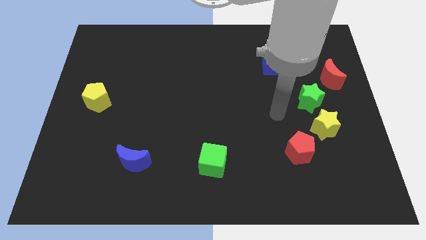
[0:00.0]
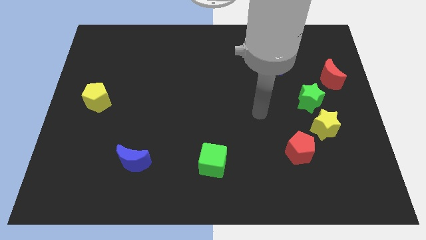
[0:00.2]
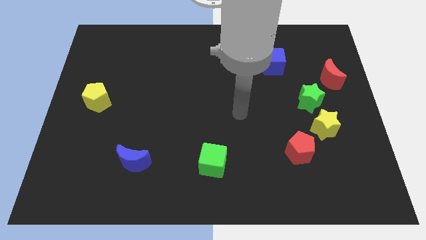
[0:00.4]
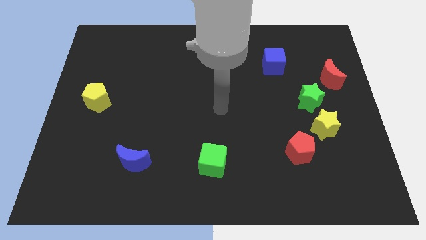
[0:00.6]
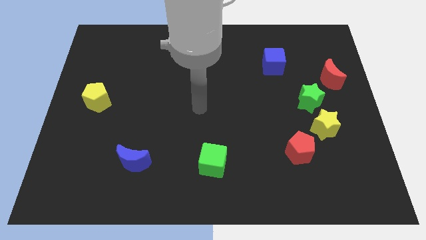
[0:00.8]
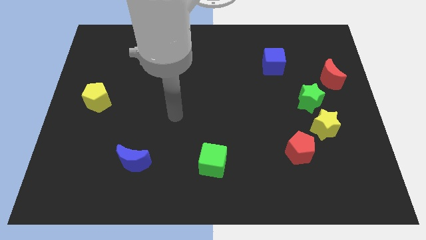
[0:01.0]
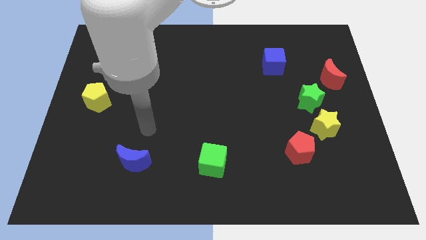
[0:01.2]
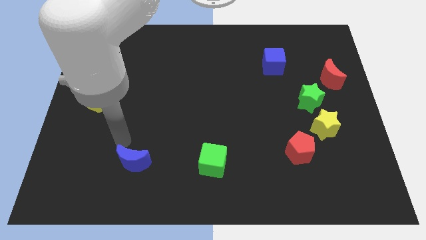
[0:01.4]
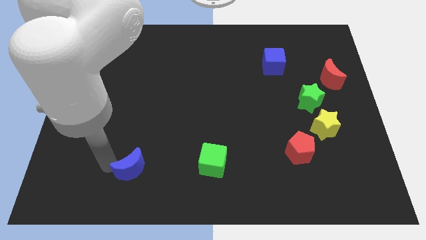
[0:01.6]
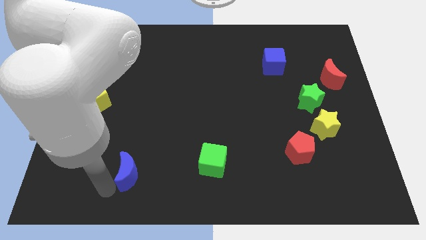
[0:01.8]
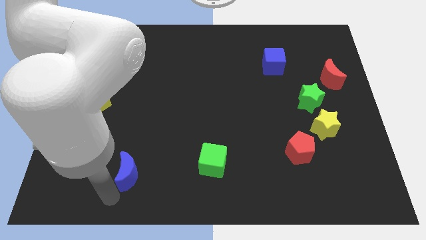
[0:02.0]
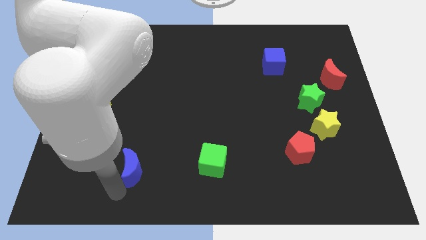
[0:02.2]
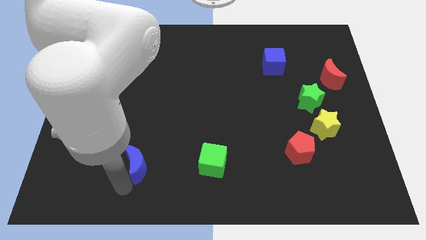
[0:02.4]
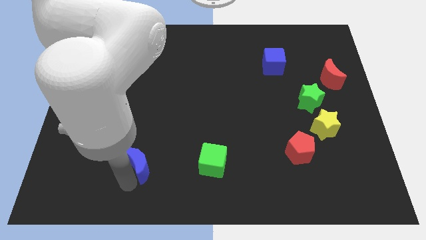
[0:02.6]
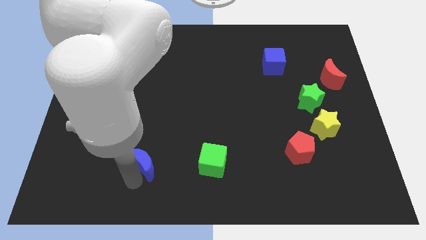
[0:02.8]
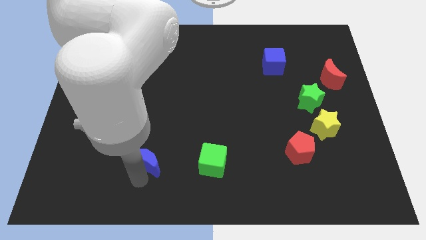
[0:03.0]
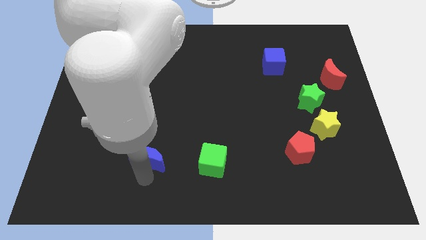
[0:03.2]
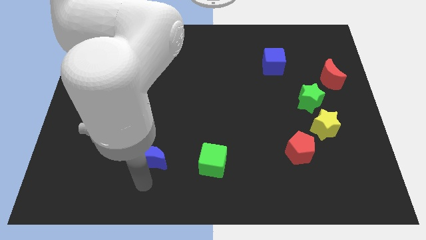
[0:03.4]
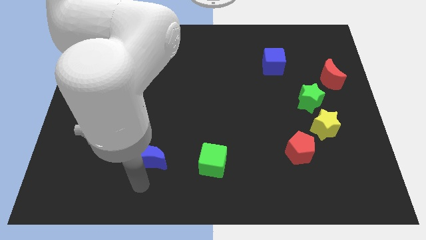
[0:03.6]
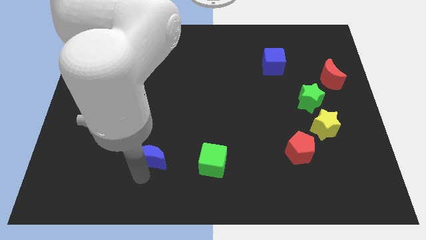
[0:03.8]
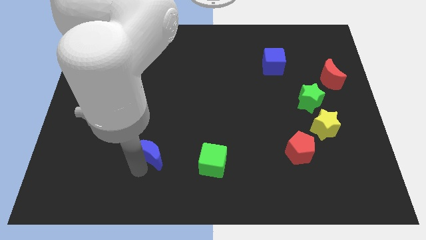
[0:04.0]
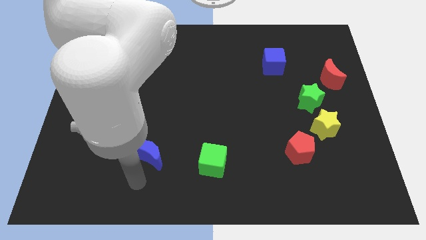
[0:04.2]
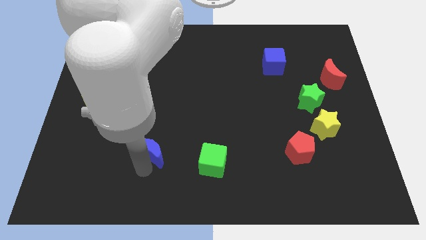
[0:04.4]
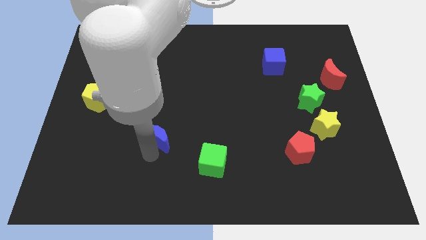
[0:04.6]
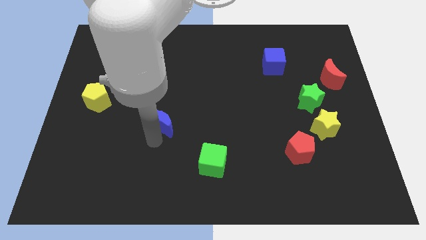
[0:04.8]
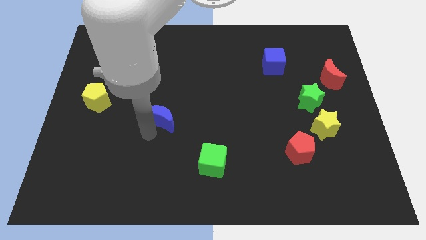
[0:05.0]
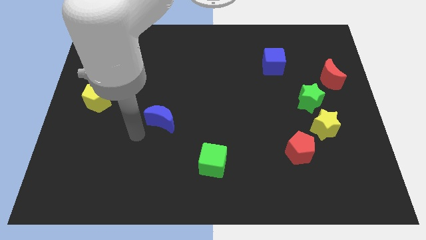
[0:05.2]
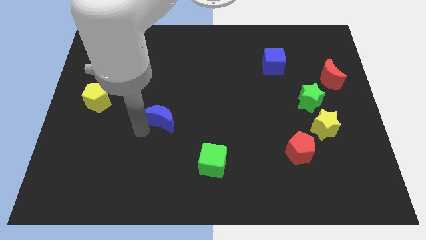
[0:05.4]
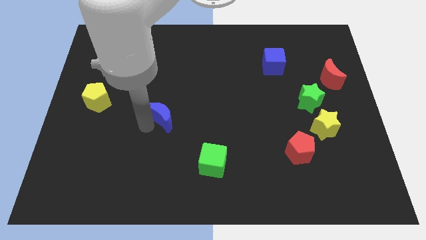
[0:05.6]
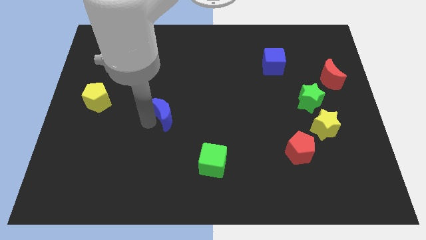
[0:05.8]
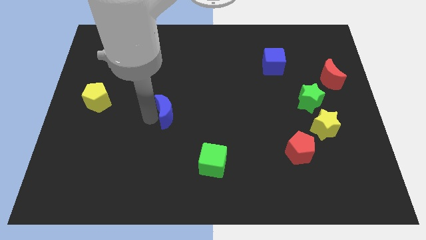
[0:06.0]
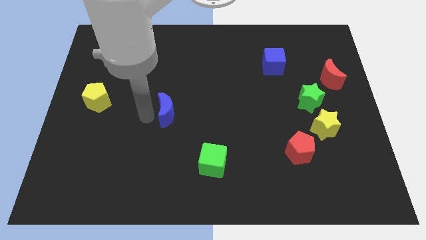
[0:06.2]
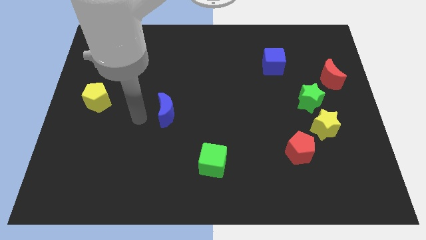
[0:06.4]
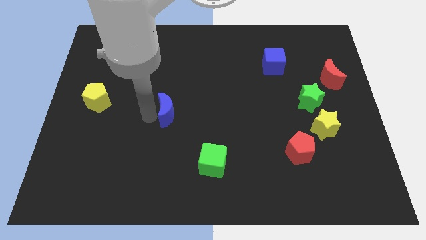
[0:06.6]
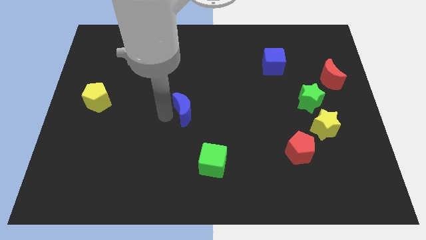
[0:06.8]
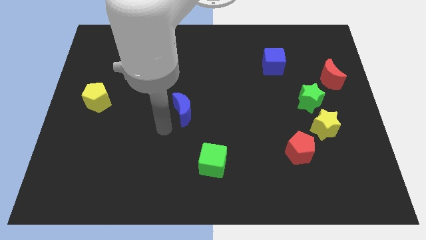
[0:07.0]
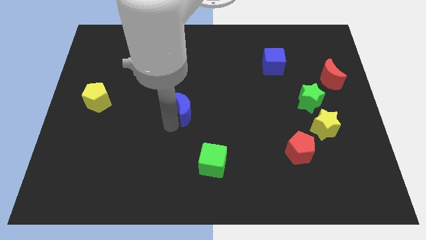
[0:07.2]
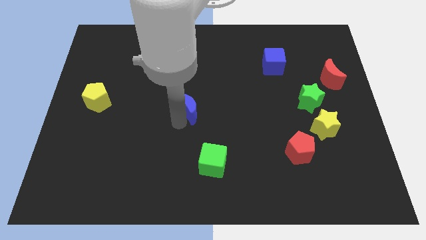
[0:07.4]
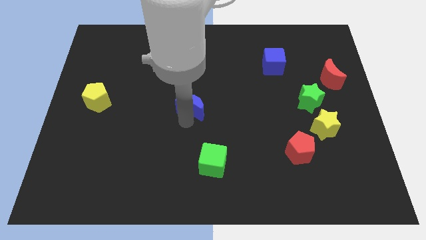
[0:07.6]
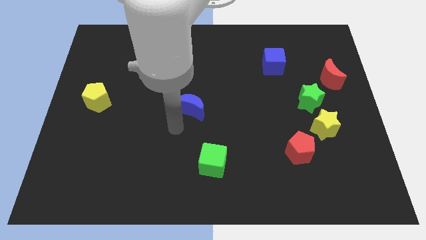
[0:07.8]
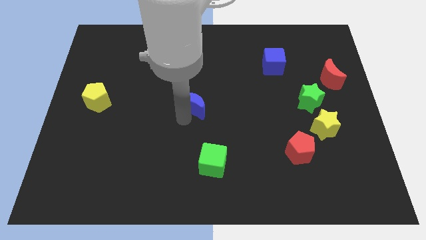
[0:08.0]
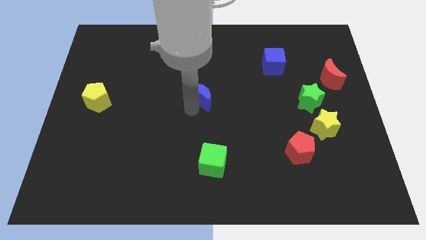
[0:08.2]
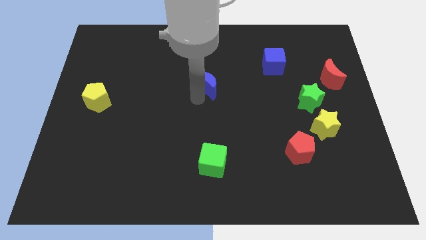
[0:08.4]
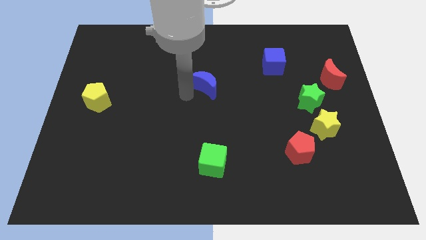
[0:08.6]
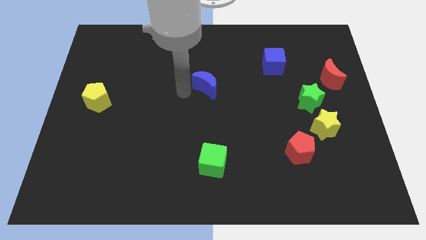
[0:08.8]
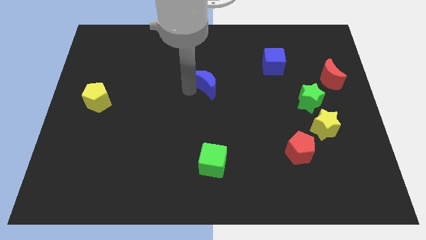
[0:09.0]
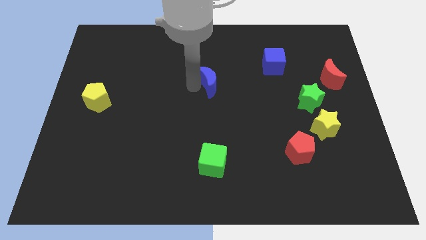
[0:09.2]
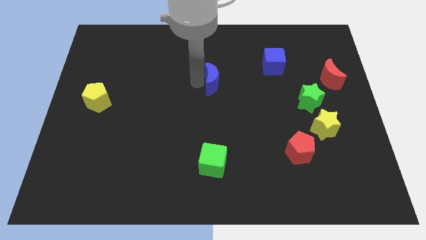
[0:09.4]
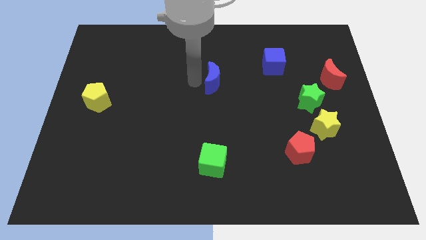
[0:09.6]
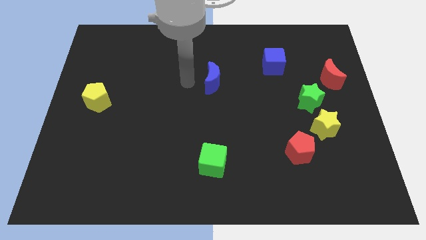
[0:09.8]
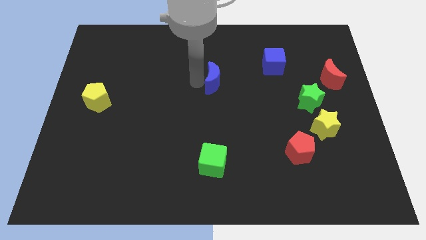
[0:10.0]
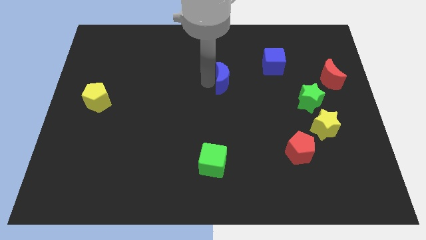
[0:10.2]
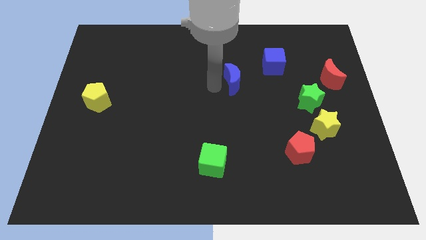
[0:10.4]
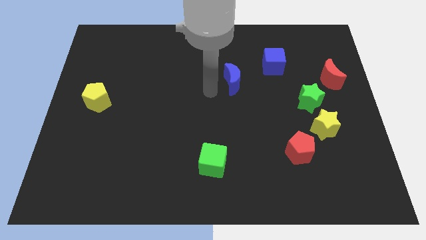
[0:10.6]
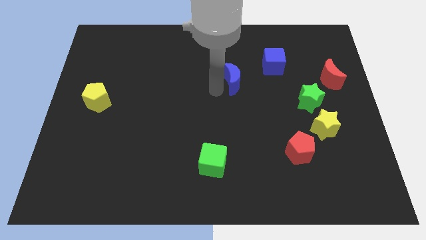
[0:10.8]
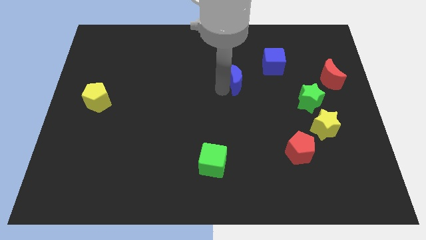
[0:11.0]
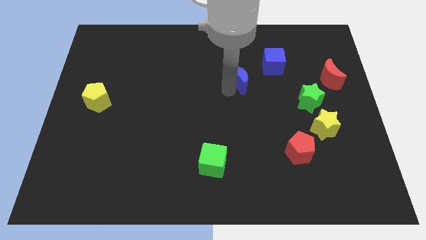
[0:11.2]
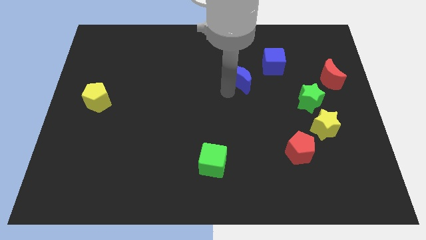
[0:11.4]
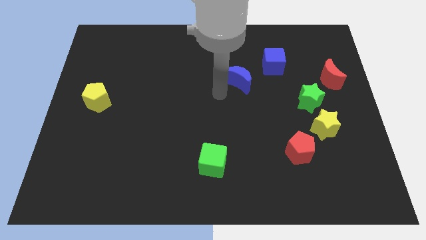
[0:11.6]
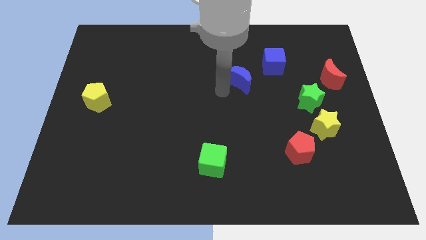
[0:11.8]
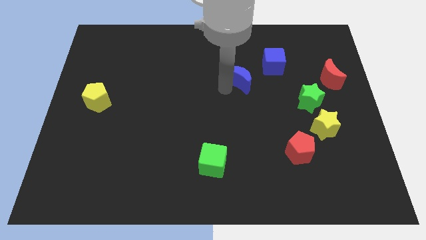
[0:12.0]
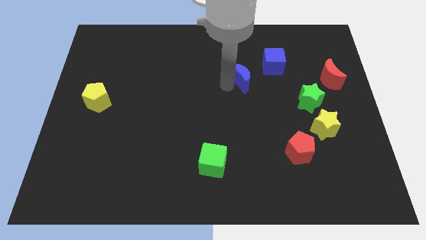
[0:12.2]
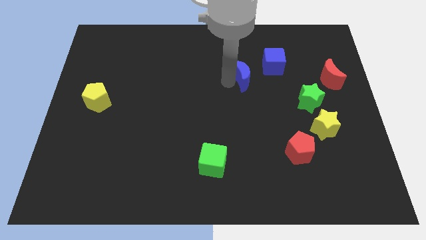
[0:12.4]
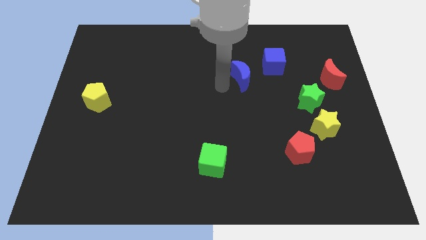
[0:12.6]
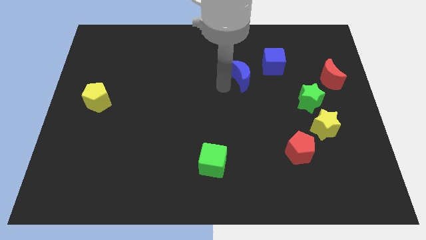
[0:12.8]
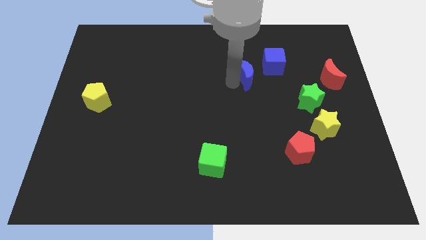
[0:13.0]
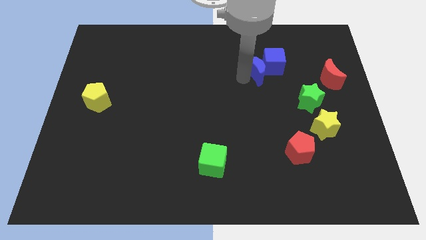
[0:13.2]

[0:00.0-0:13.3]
put the blue moon towards the blue cube

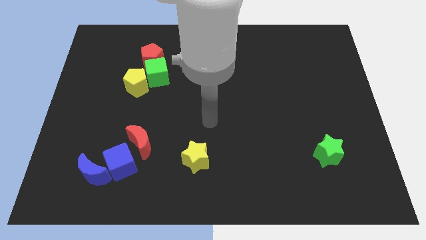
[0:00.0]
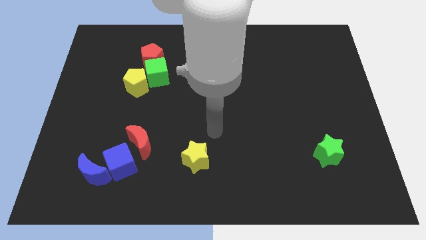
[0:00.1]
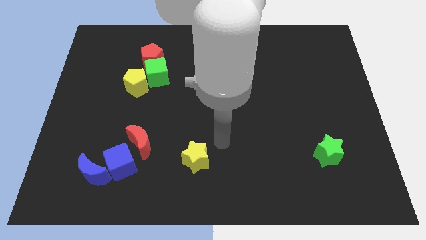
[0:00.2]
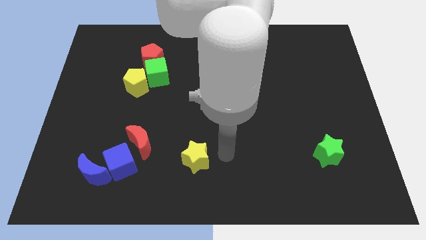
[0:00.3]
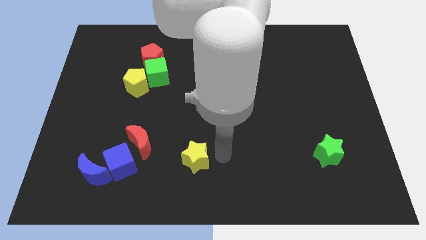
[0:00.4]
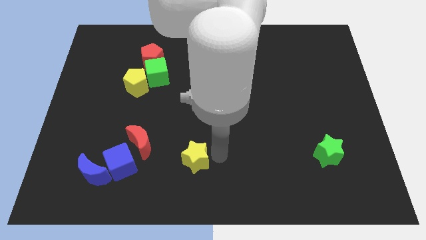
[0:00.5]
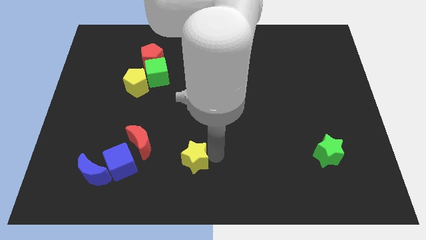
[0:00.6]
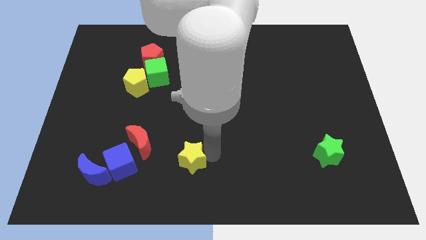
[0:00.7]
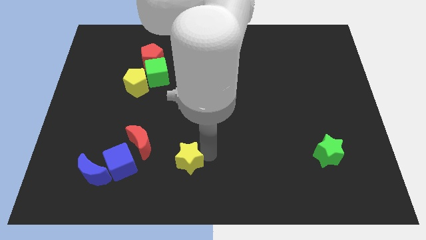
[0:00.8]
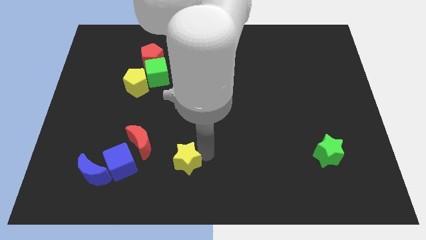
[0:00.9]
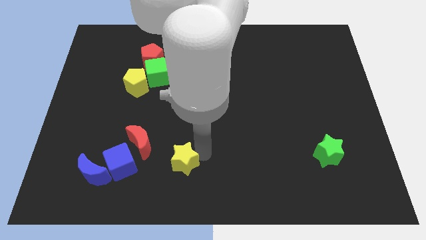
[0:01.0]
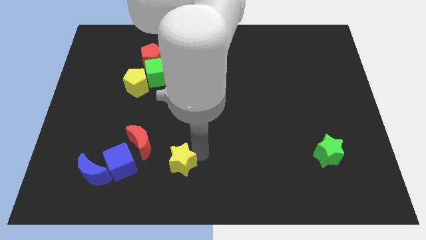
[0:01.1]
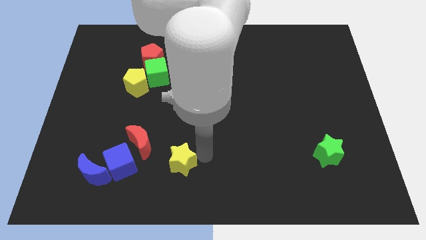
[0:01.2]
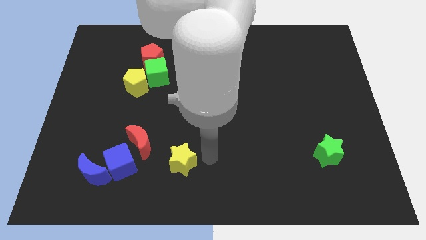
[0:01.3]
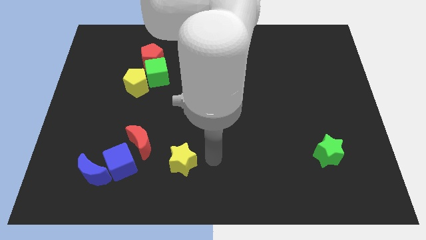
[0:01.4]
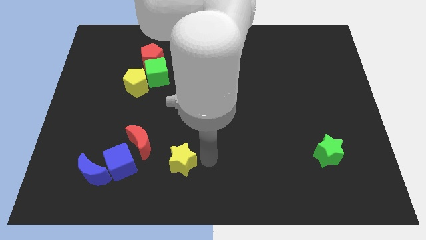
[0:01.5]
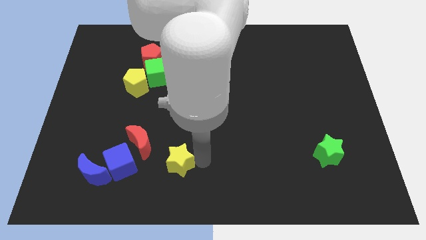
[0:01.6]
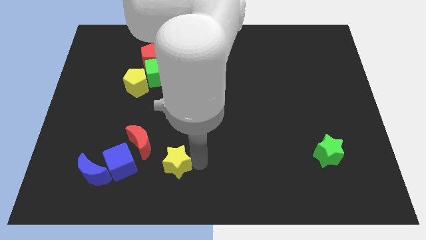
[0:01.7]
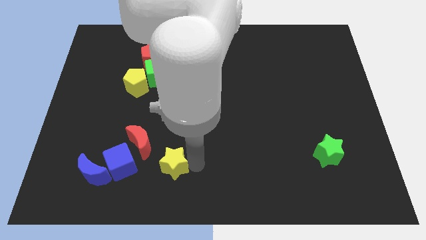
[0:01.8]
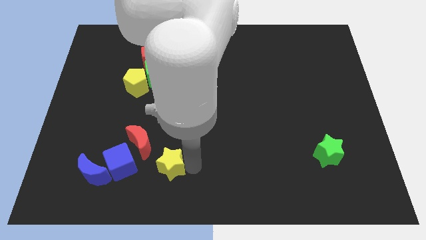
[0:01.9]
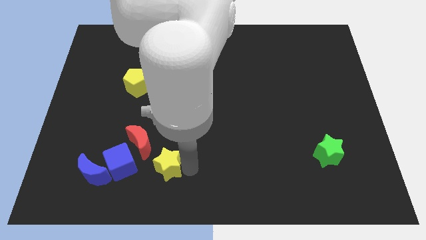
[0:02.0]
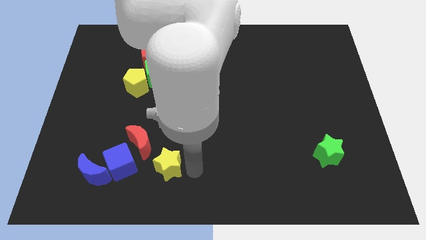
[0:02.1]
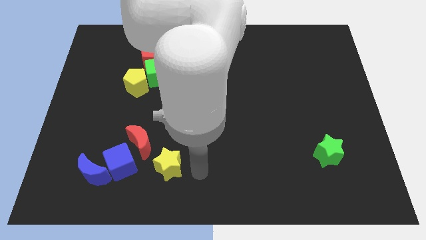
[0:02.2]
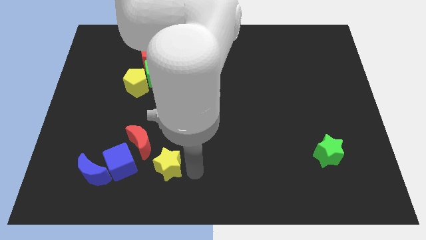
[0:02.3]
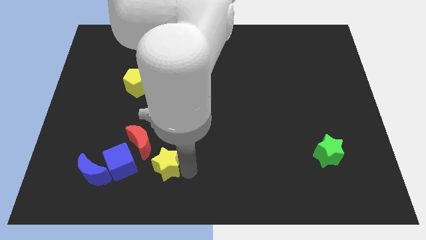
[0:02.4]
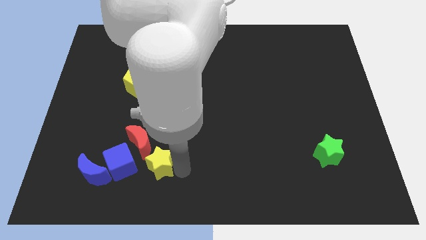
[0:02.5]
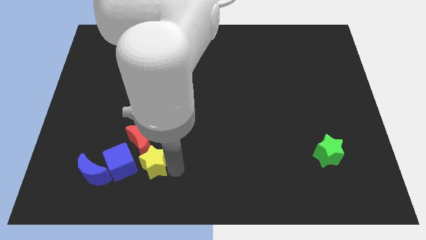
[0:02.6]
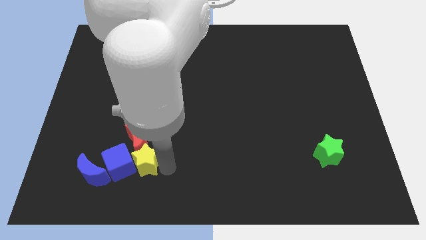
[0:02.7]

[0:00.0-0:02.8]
slide the yellow star next to the blue cube
